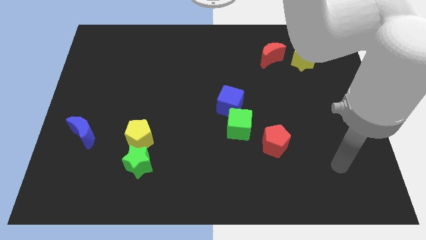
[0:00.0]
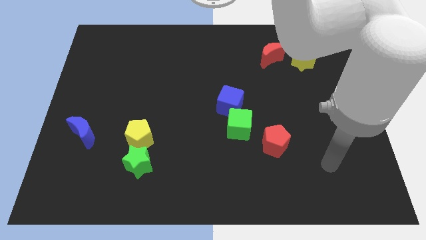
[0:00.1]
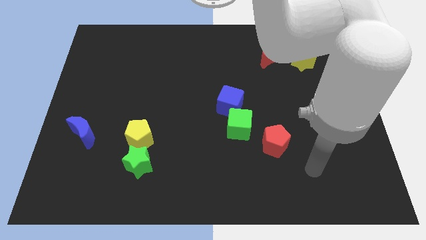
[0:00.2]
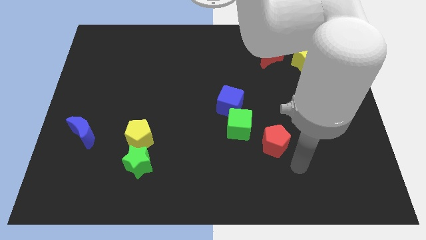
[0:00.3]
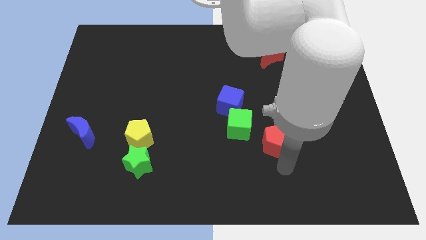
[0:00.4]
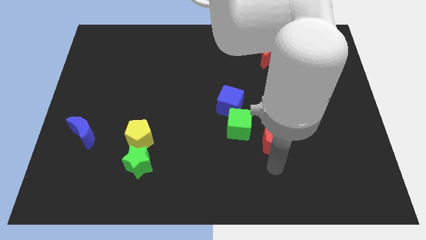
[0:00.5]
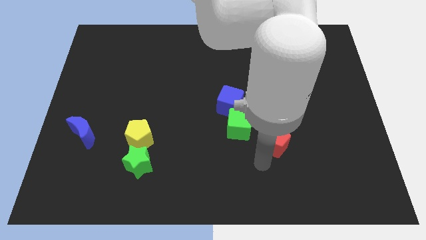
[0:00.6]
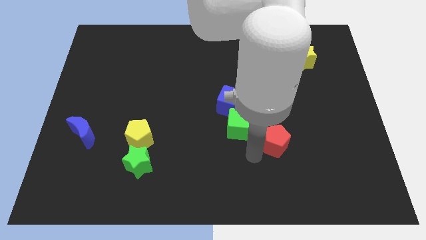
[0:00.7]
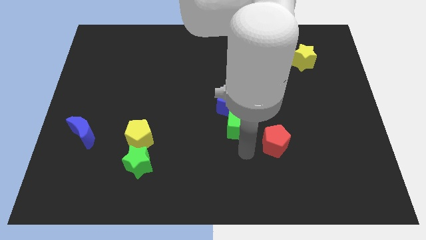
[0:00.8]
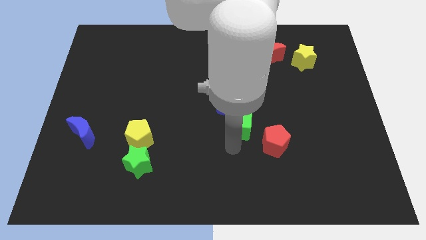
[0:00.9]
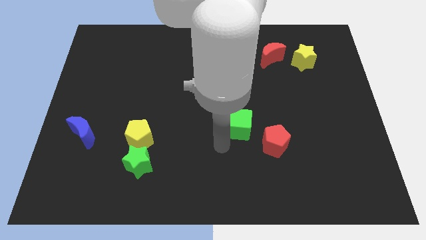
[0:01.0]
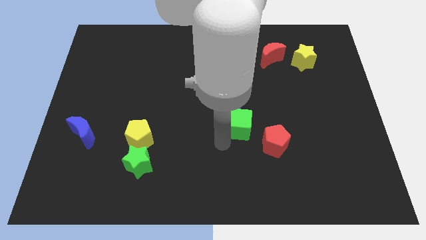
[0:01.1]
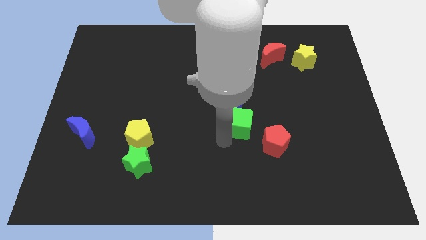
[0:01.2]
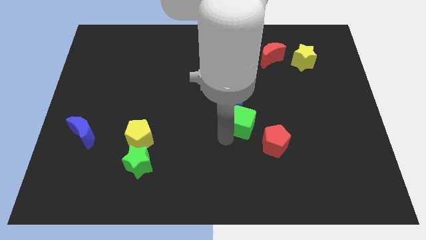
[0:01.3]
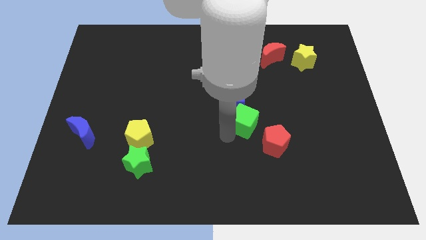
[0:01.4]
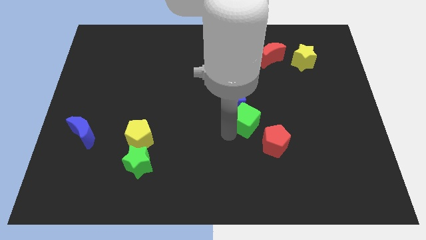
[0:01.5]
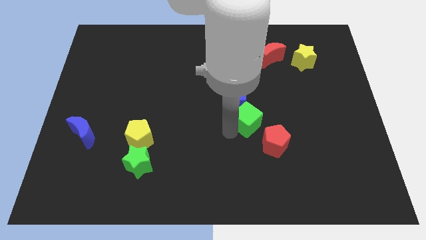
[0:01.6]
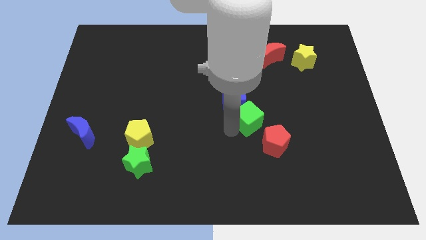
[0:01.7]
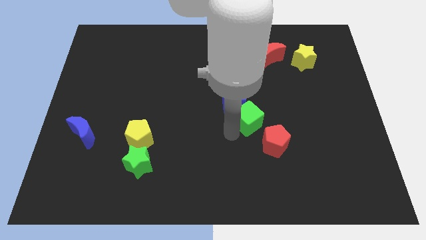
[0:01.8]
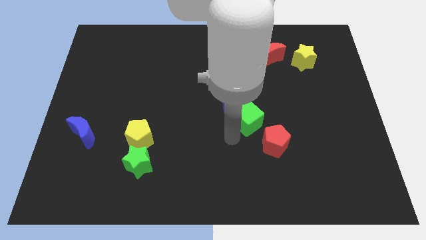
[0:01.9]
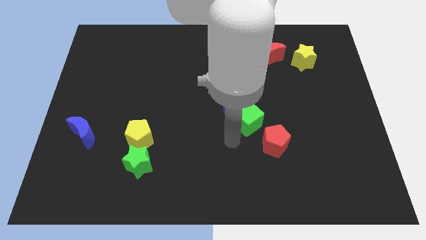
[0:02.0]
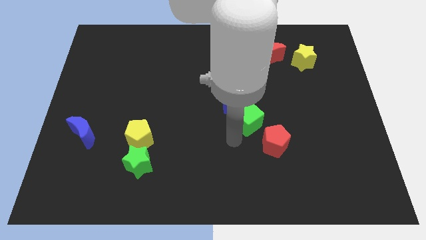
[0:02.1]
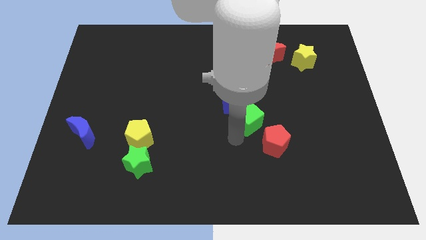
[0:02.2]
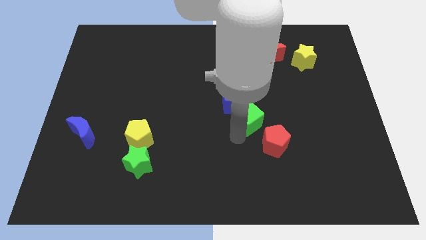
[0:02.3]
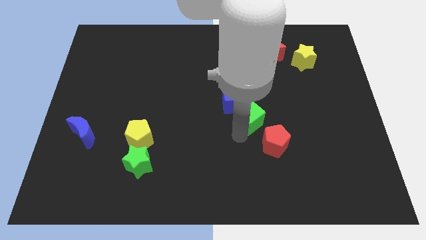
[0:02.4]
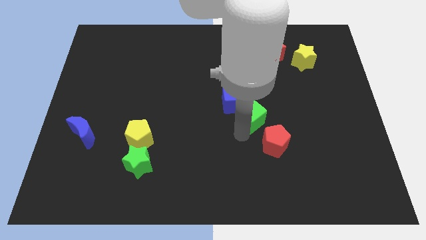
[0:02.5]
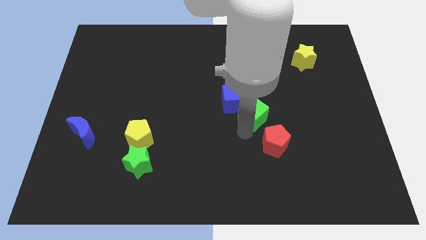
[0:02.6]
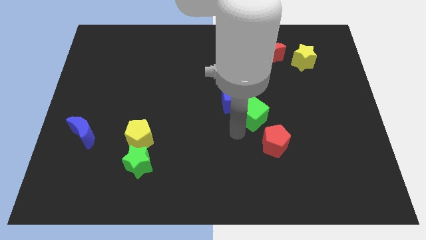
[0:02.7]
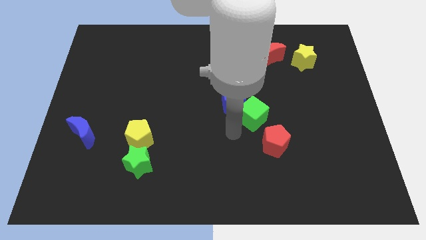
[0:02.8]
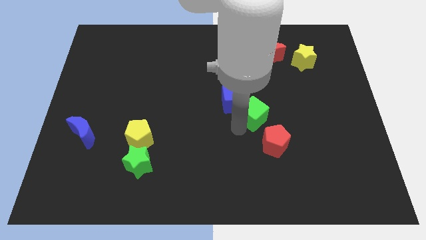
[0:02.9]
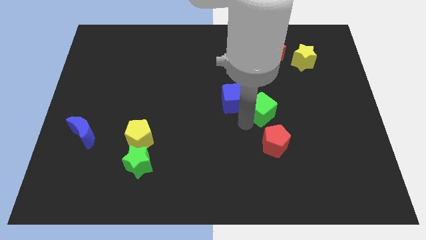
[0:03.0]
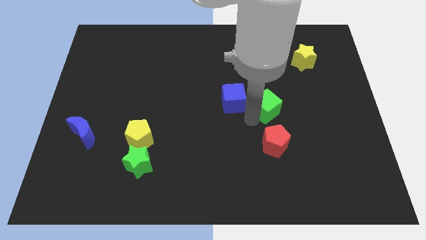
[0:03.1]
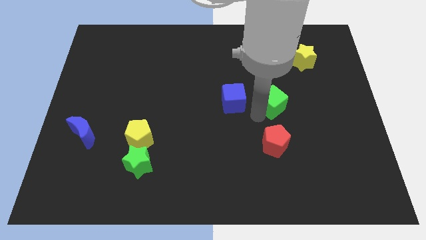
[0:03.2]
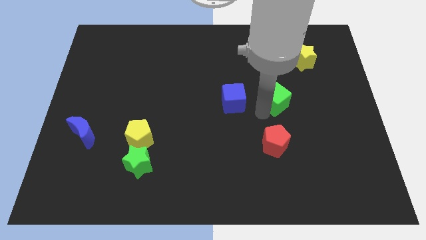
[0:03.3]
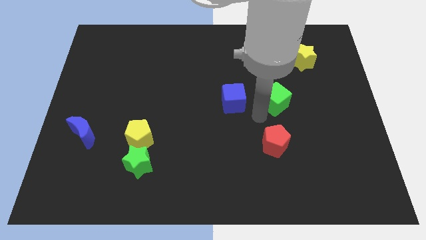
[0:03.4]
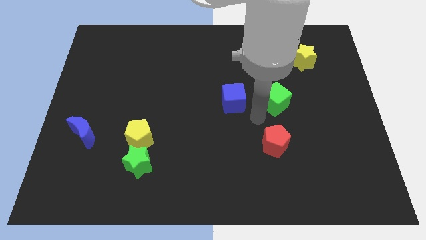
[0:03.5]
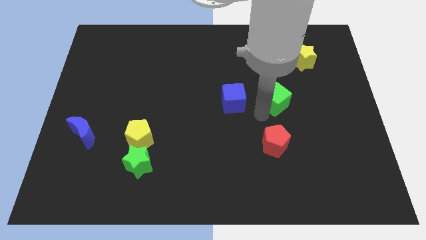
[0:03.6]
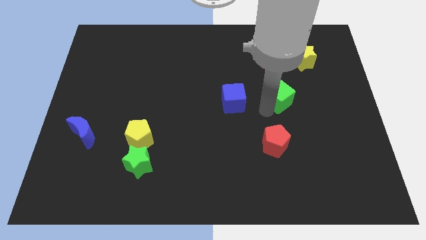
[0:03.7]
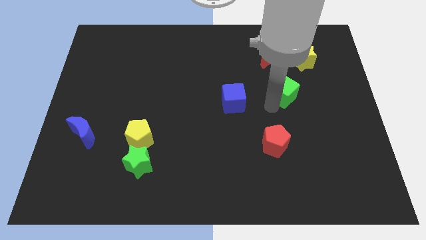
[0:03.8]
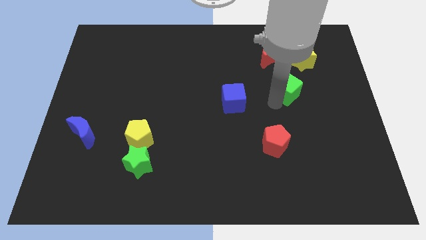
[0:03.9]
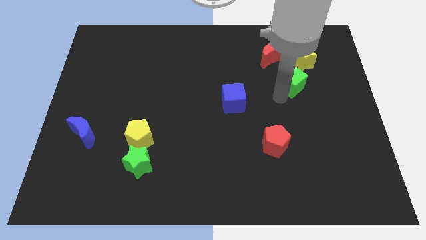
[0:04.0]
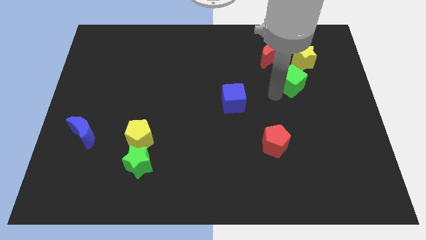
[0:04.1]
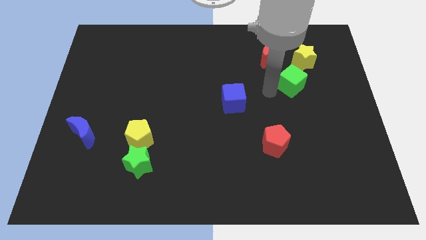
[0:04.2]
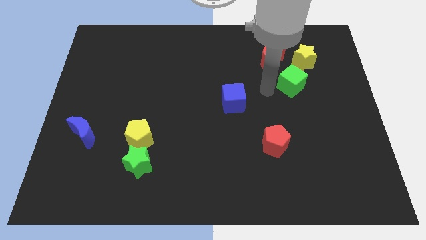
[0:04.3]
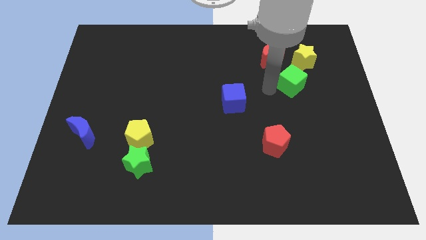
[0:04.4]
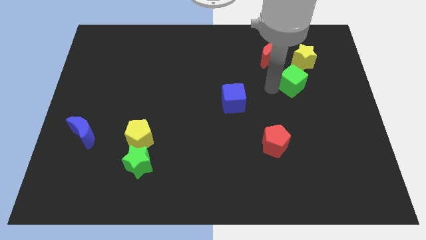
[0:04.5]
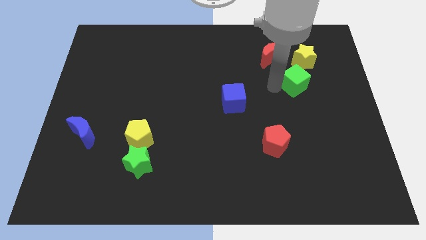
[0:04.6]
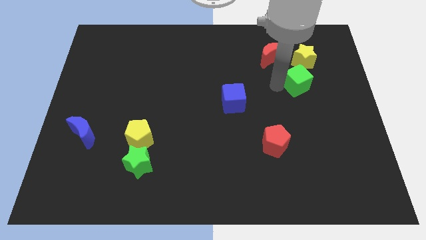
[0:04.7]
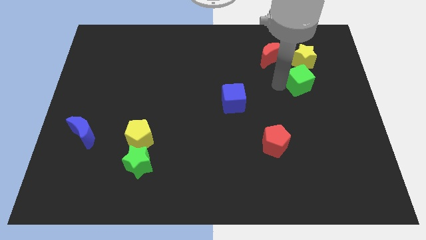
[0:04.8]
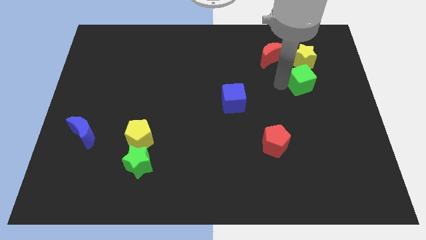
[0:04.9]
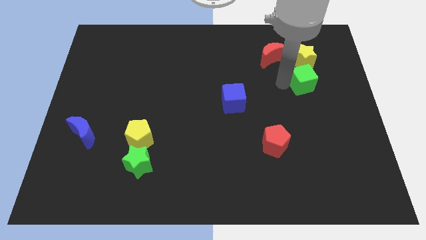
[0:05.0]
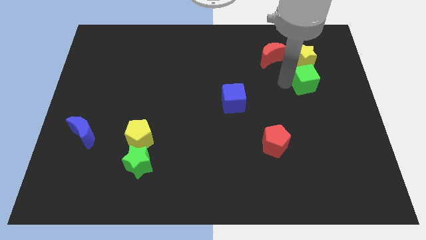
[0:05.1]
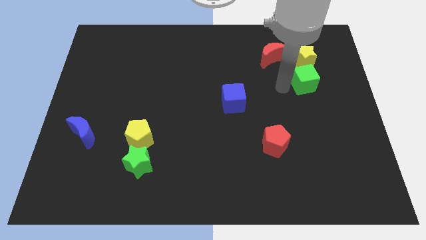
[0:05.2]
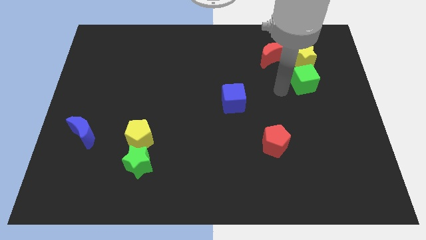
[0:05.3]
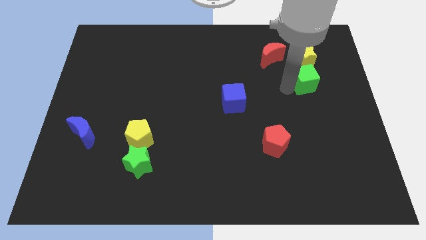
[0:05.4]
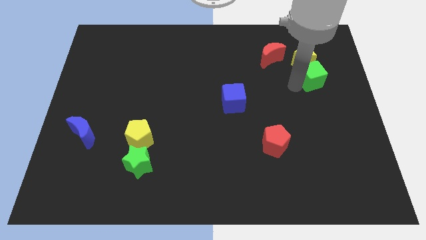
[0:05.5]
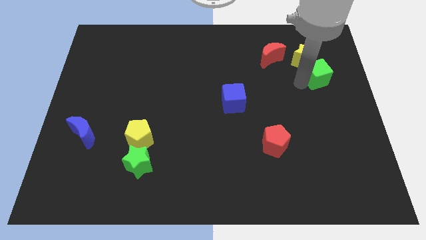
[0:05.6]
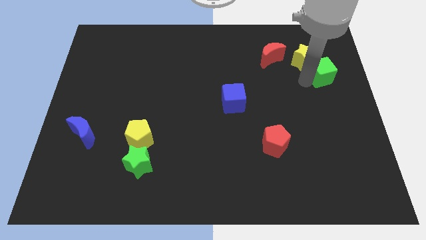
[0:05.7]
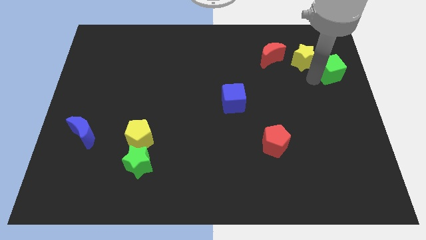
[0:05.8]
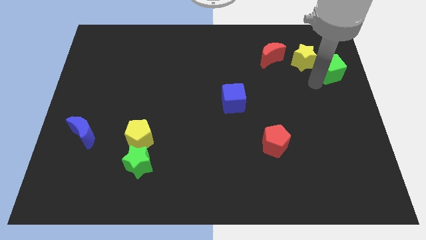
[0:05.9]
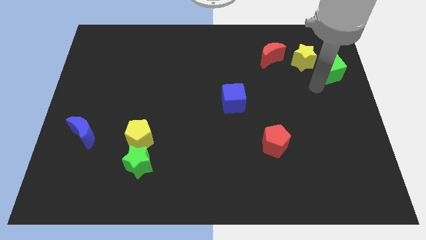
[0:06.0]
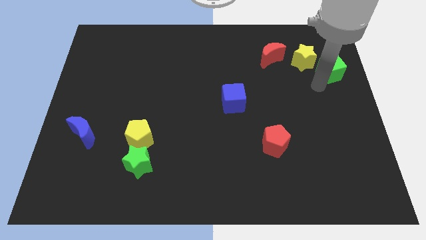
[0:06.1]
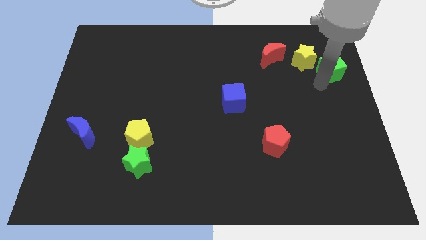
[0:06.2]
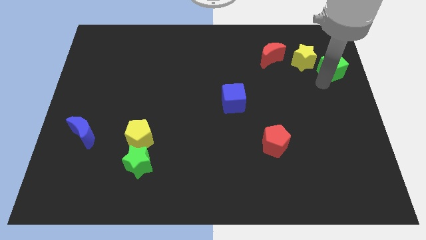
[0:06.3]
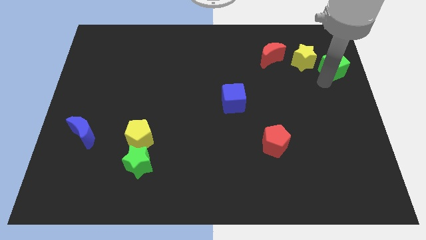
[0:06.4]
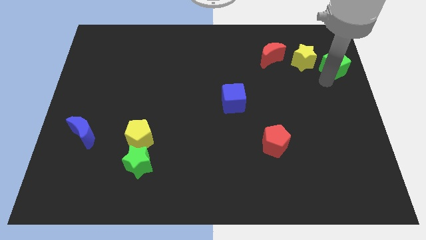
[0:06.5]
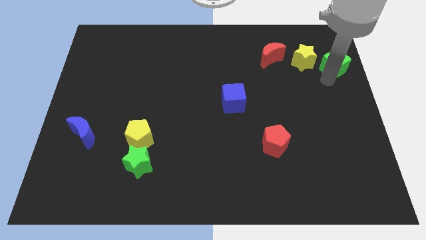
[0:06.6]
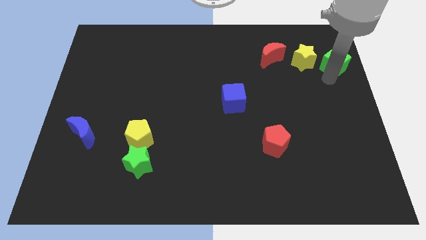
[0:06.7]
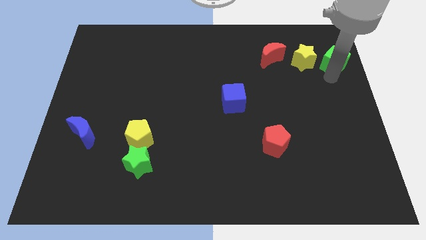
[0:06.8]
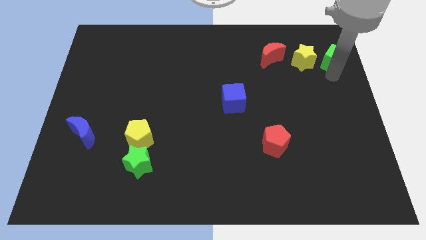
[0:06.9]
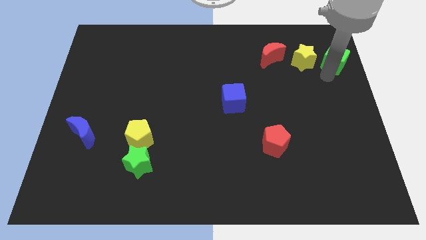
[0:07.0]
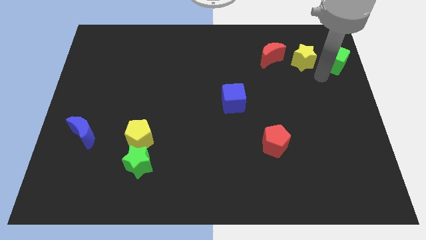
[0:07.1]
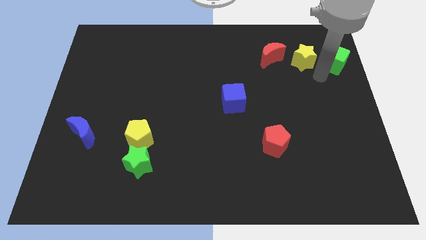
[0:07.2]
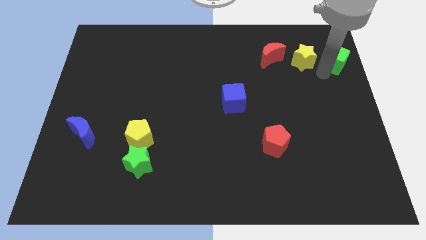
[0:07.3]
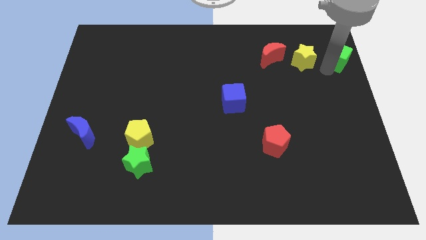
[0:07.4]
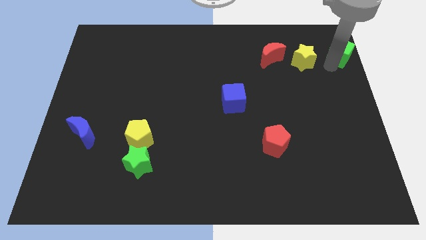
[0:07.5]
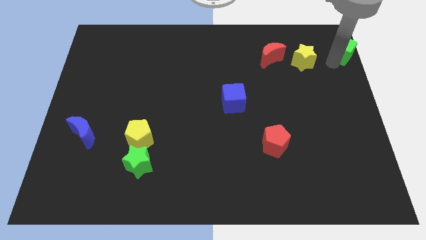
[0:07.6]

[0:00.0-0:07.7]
slide the green cube to the top right
